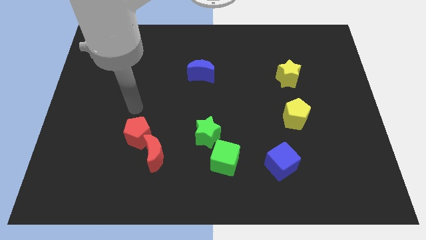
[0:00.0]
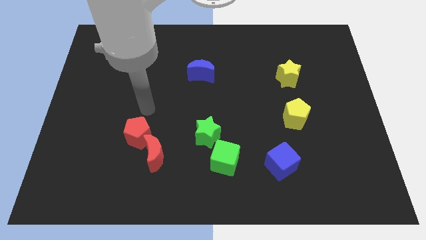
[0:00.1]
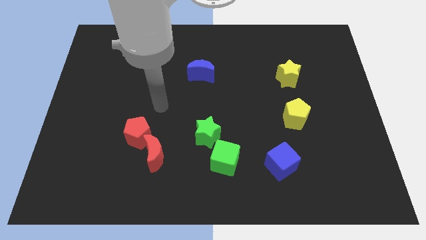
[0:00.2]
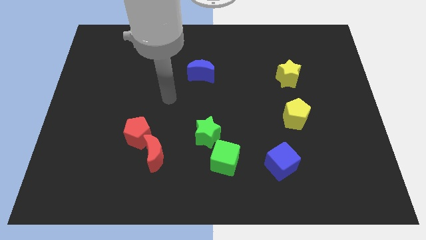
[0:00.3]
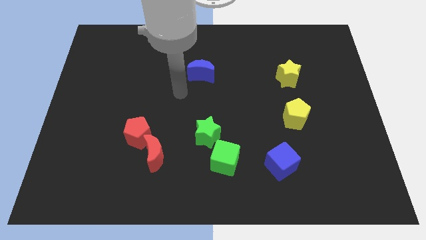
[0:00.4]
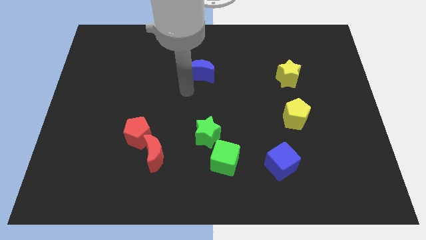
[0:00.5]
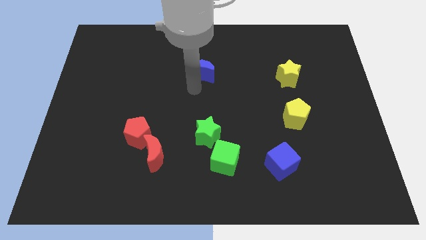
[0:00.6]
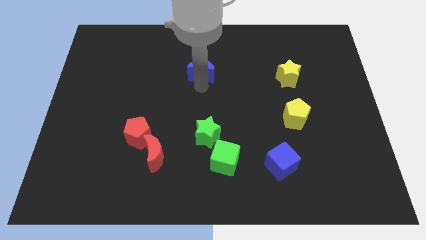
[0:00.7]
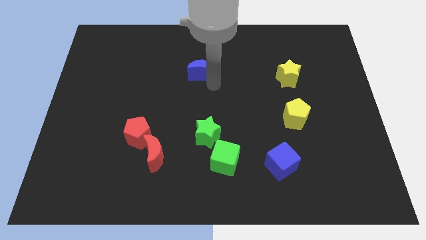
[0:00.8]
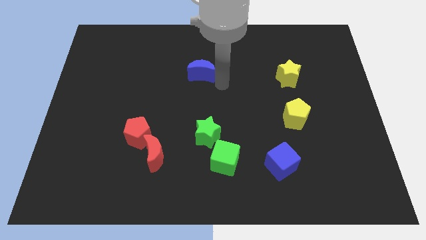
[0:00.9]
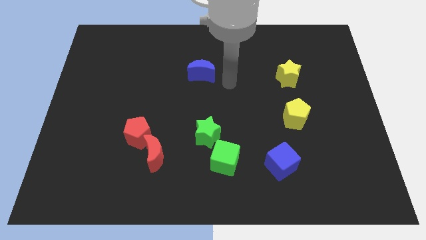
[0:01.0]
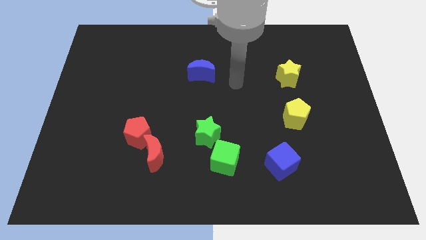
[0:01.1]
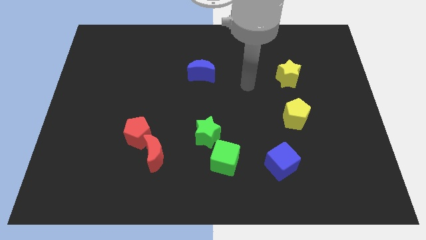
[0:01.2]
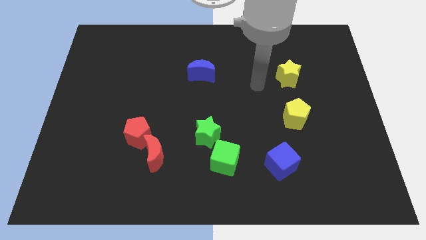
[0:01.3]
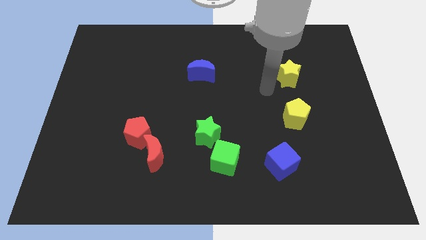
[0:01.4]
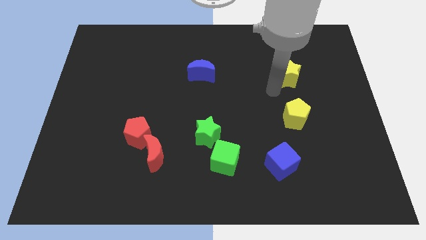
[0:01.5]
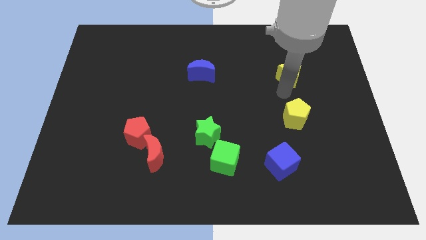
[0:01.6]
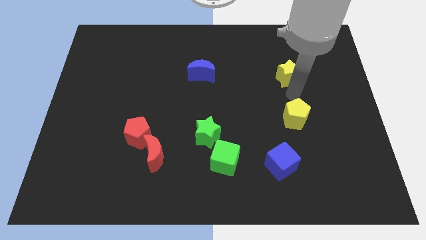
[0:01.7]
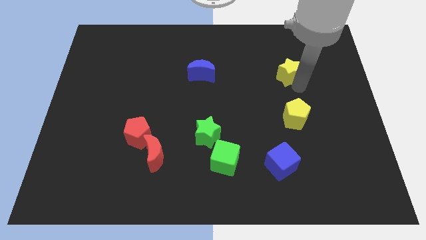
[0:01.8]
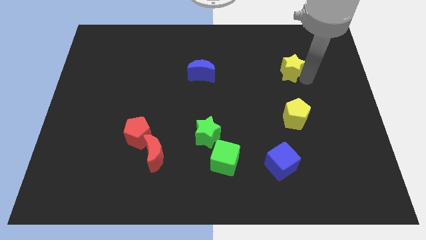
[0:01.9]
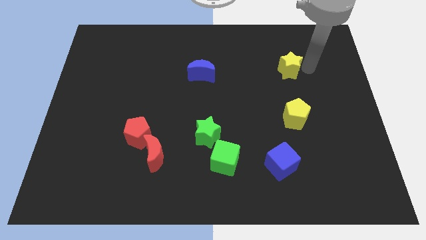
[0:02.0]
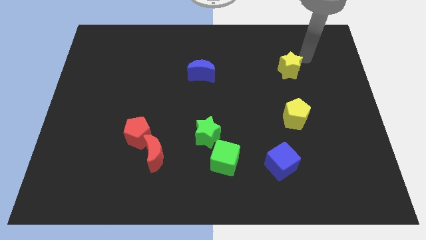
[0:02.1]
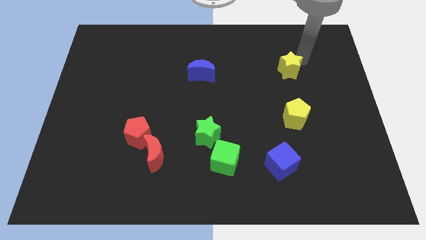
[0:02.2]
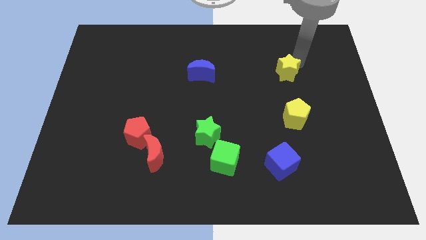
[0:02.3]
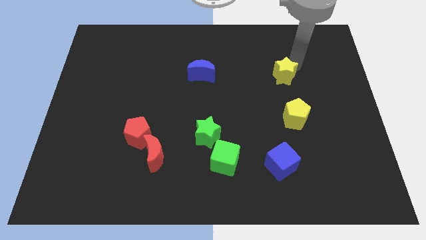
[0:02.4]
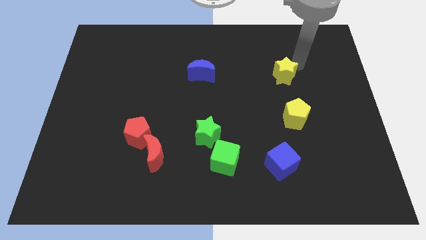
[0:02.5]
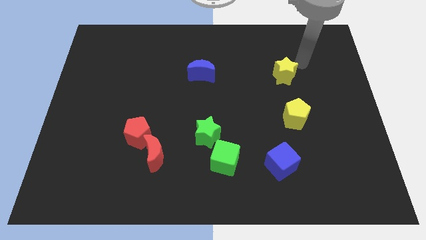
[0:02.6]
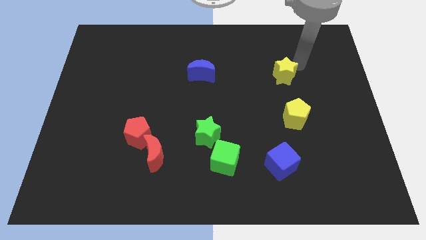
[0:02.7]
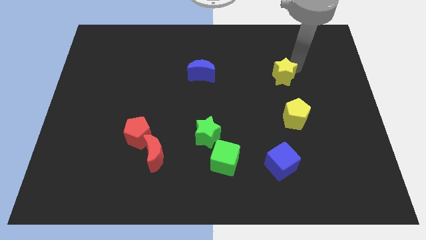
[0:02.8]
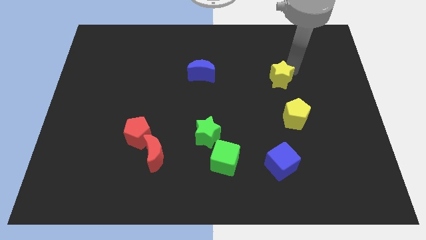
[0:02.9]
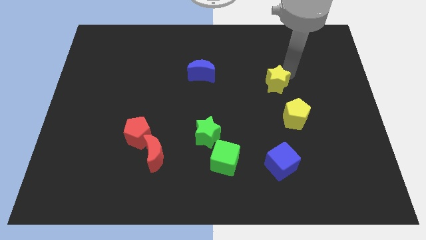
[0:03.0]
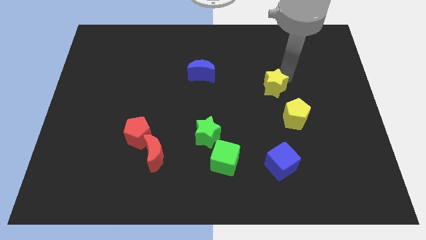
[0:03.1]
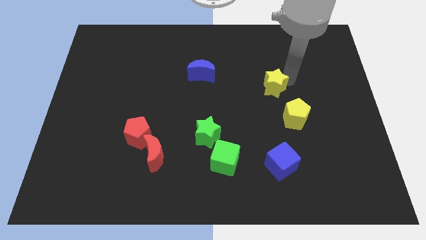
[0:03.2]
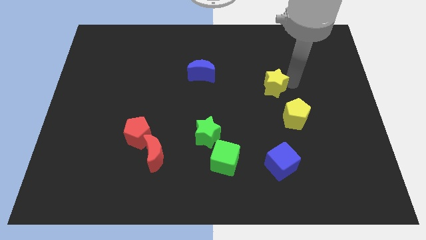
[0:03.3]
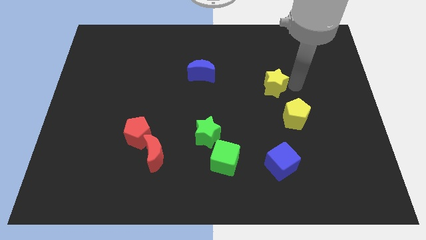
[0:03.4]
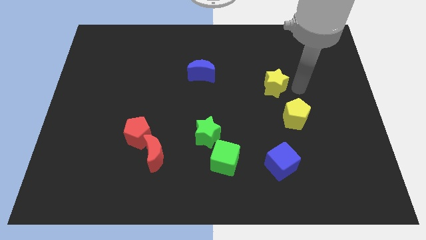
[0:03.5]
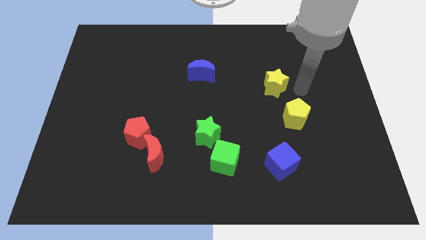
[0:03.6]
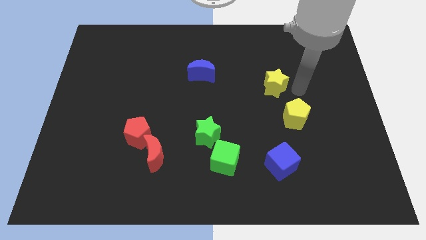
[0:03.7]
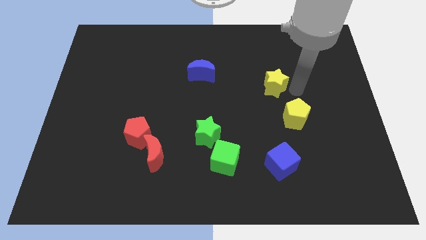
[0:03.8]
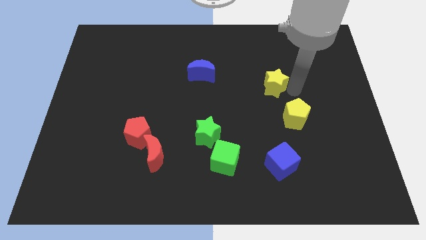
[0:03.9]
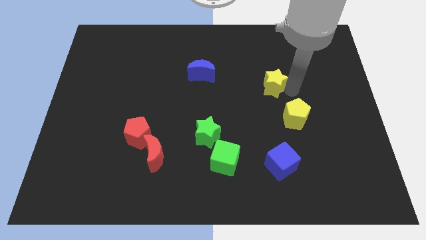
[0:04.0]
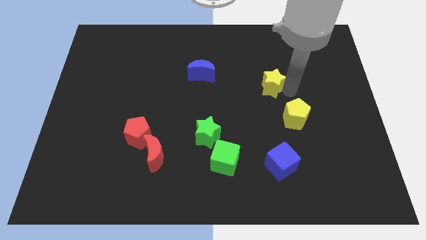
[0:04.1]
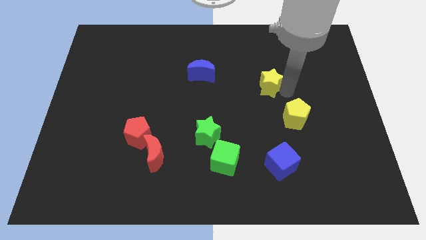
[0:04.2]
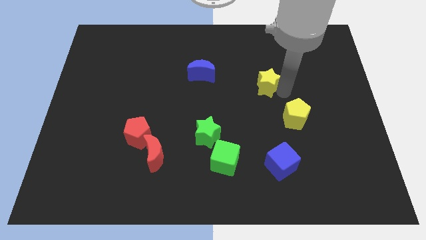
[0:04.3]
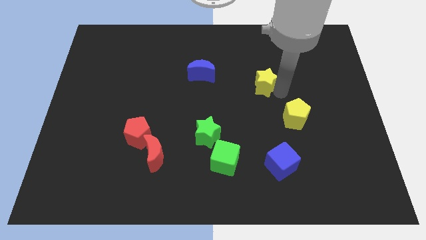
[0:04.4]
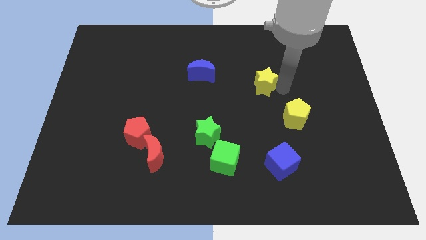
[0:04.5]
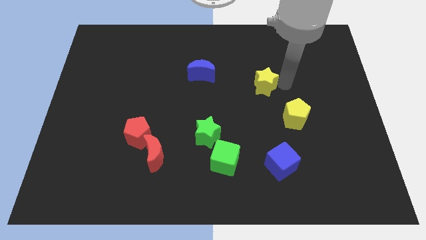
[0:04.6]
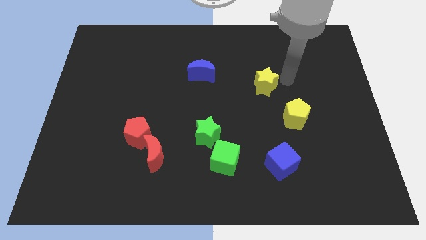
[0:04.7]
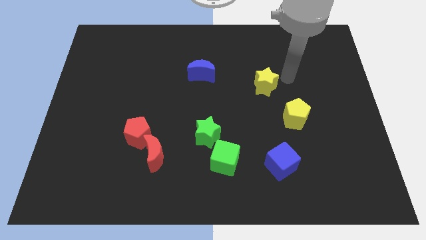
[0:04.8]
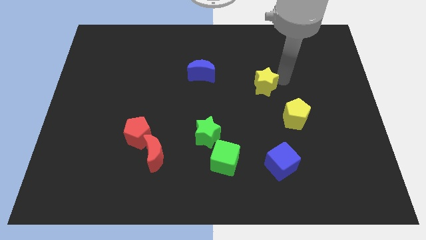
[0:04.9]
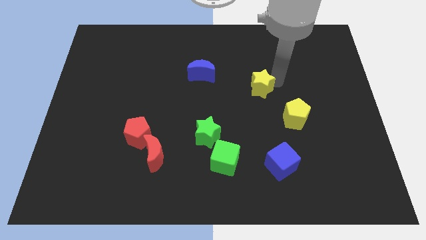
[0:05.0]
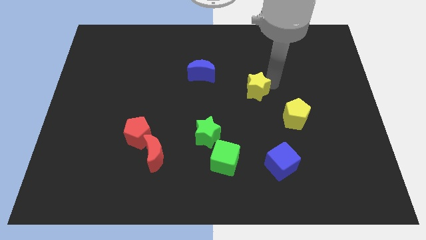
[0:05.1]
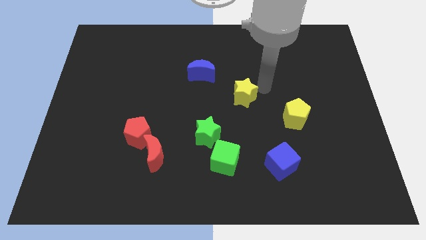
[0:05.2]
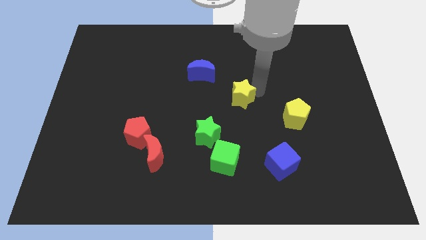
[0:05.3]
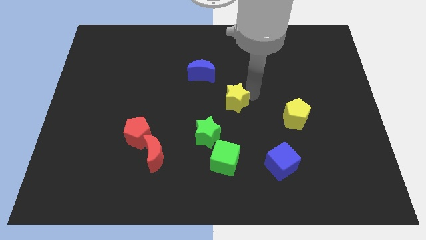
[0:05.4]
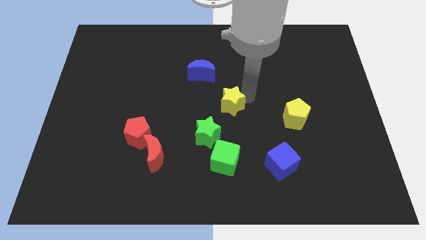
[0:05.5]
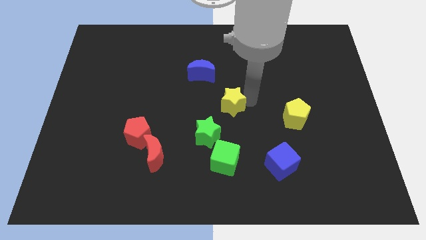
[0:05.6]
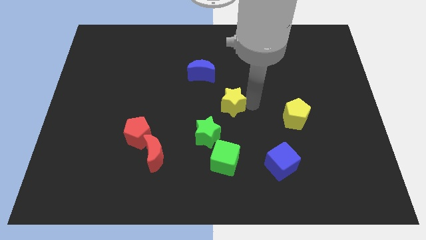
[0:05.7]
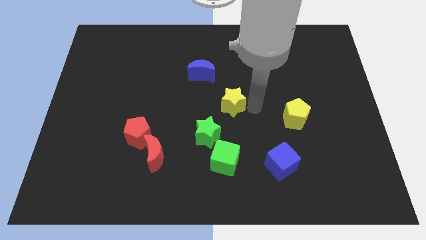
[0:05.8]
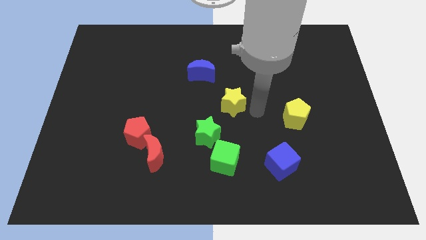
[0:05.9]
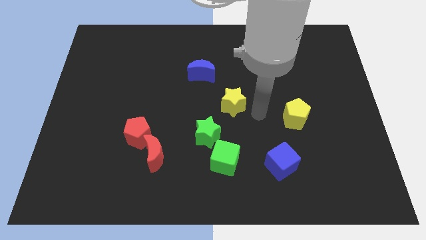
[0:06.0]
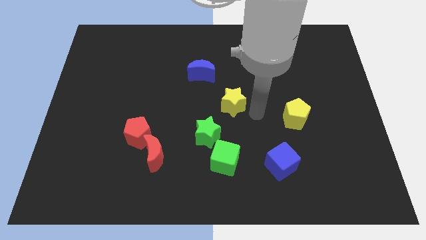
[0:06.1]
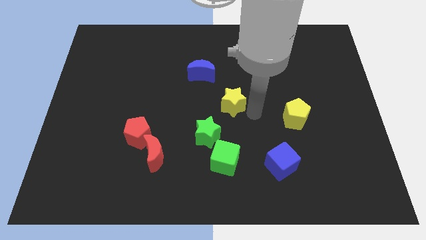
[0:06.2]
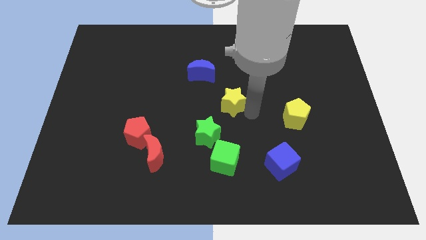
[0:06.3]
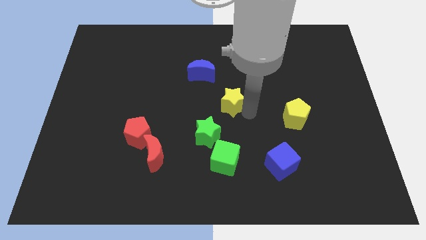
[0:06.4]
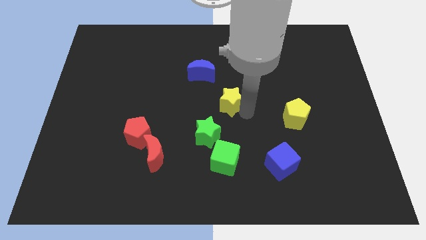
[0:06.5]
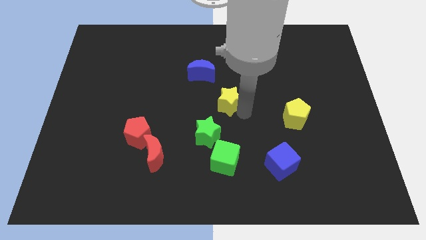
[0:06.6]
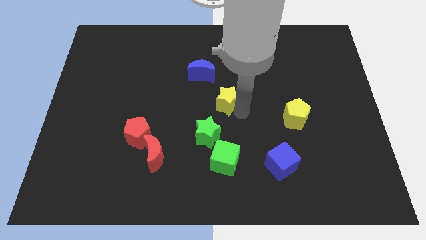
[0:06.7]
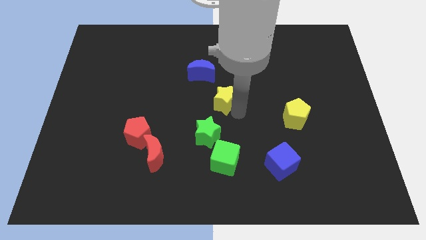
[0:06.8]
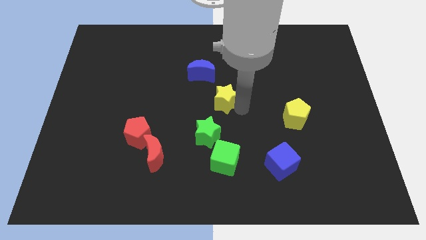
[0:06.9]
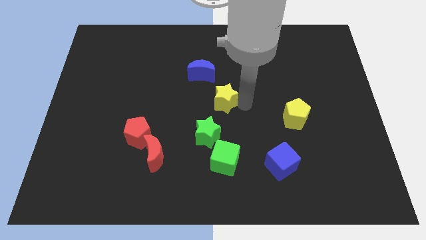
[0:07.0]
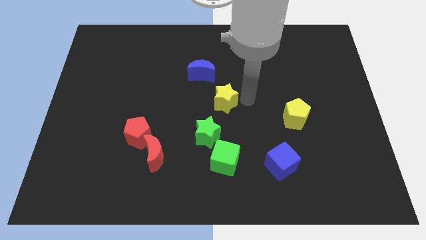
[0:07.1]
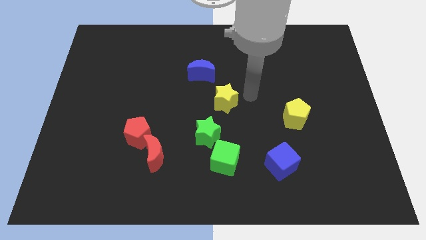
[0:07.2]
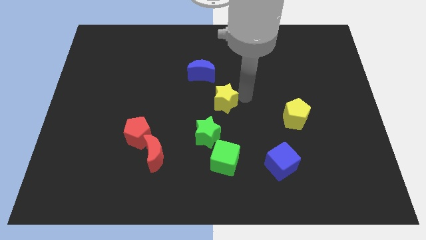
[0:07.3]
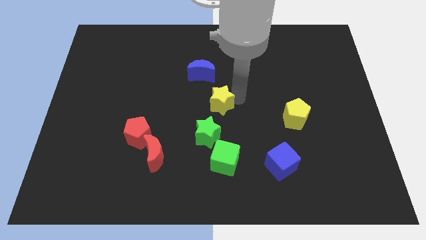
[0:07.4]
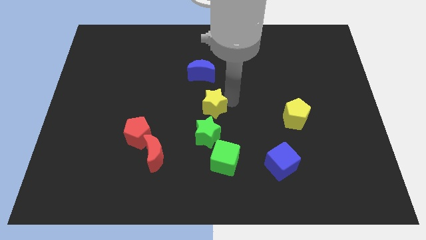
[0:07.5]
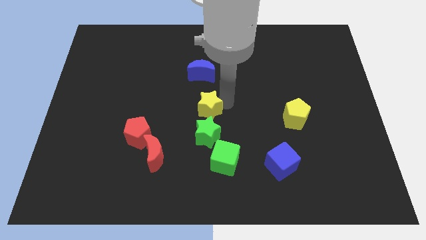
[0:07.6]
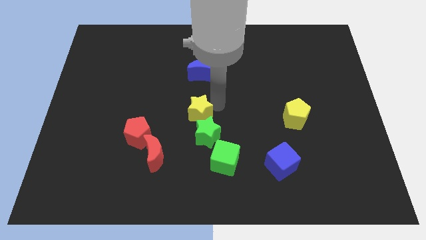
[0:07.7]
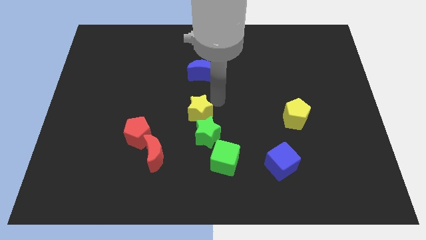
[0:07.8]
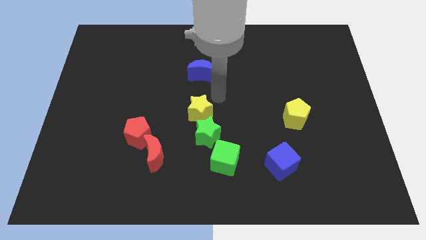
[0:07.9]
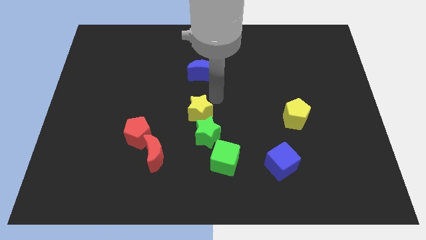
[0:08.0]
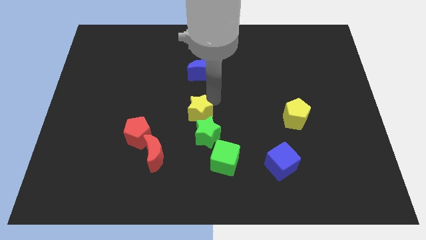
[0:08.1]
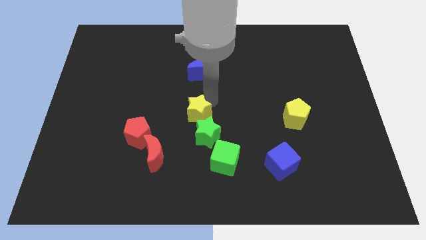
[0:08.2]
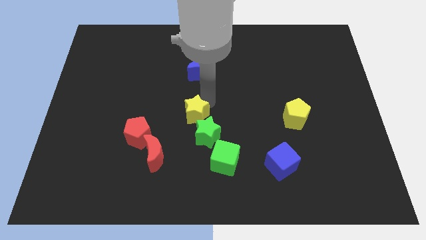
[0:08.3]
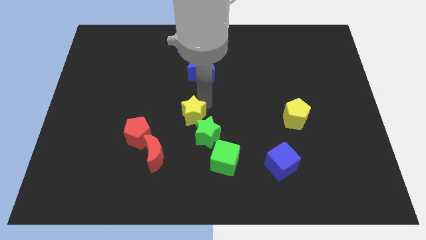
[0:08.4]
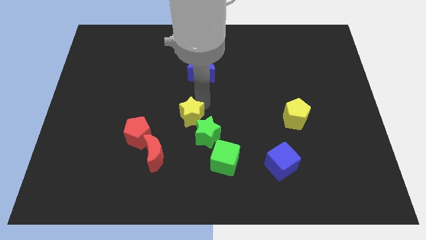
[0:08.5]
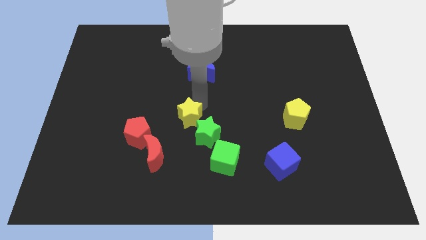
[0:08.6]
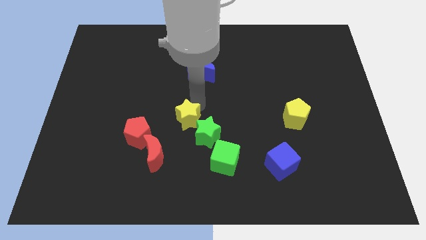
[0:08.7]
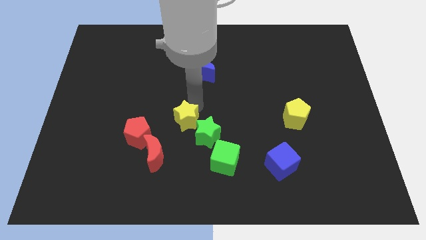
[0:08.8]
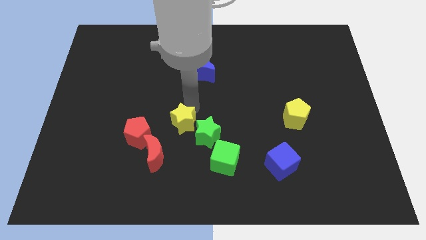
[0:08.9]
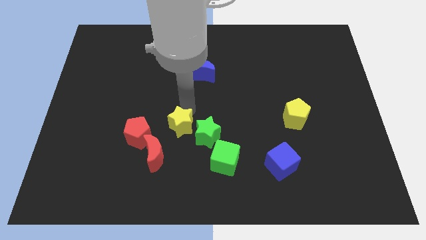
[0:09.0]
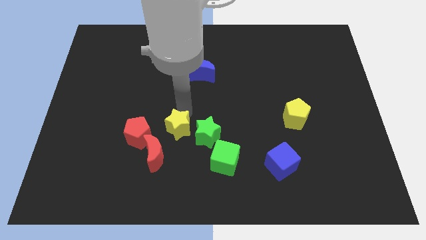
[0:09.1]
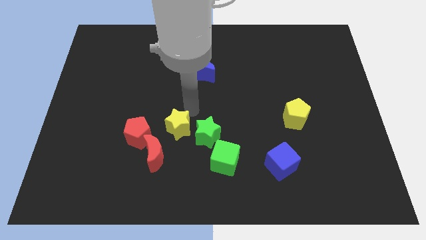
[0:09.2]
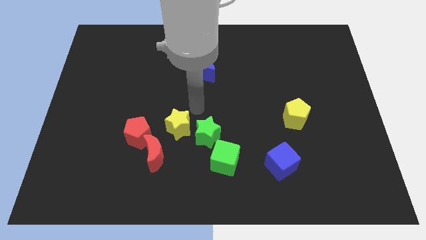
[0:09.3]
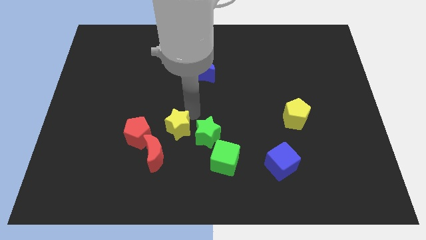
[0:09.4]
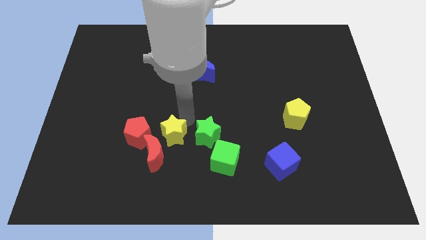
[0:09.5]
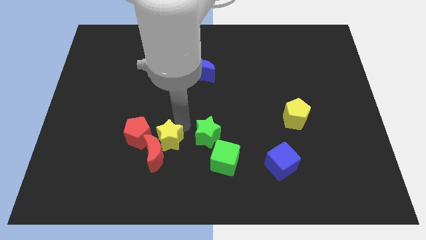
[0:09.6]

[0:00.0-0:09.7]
push the yellow star towards the red moon
